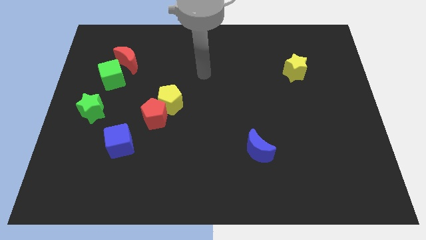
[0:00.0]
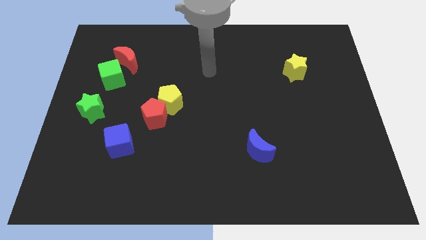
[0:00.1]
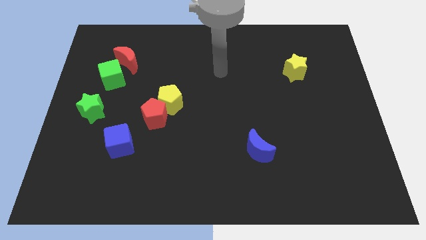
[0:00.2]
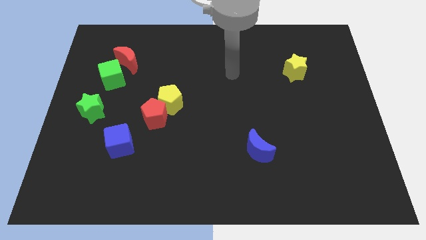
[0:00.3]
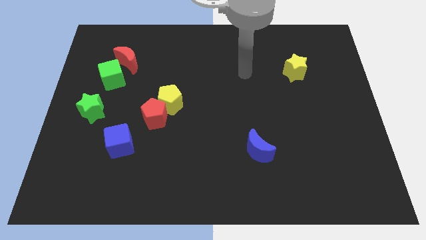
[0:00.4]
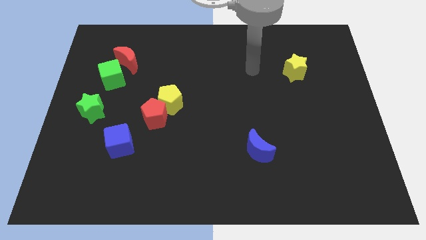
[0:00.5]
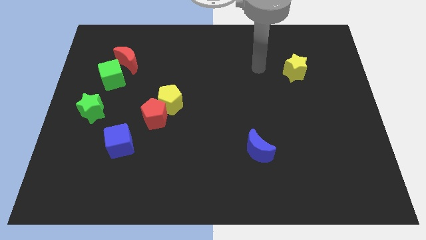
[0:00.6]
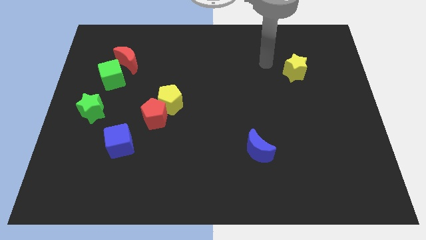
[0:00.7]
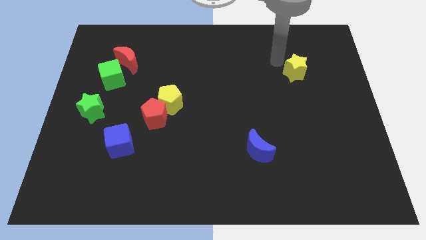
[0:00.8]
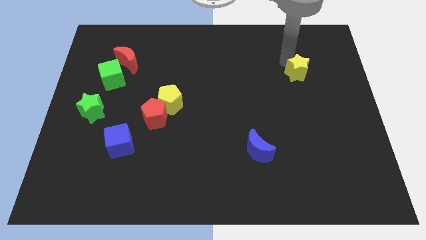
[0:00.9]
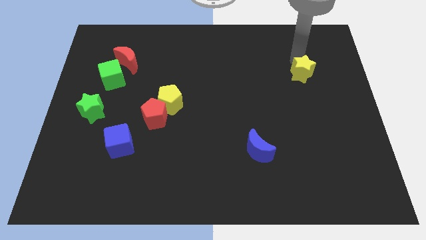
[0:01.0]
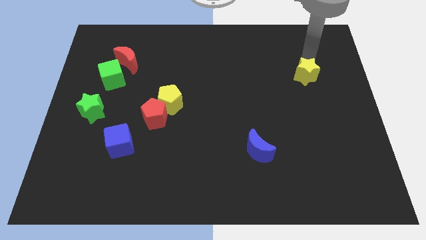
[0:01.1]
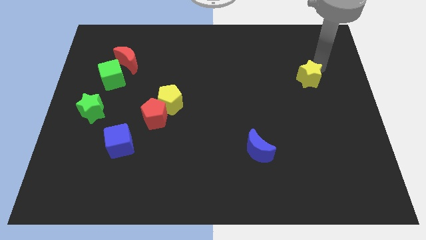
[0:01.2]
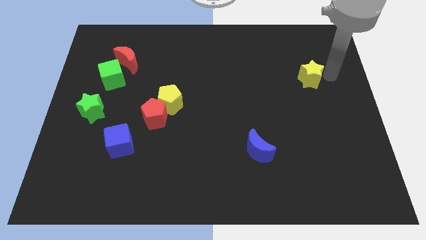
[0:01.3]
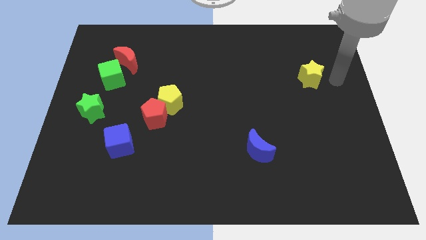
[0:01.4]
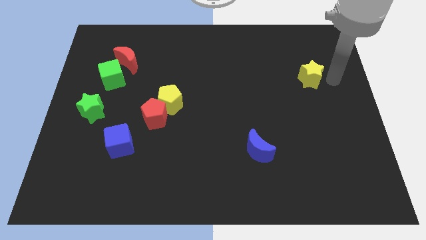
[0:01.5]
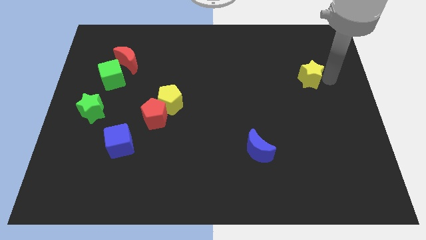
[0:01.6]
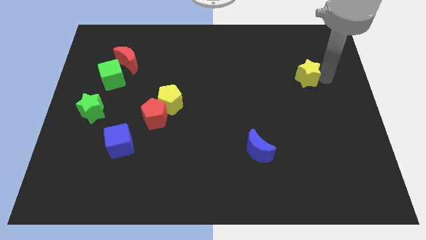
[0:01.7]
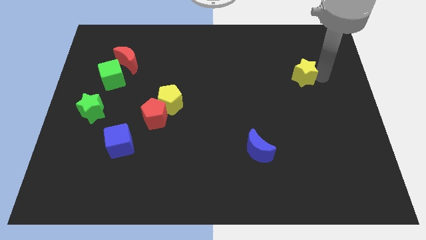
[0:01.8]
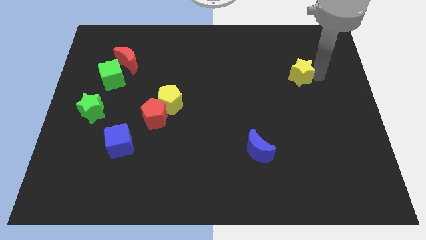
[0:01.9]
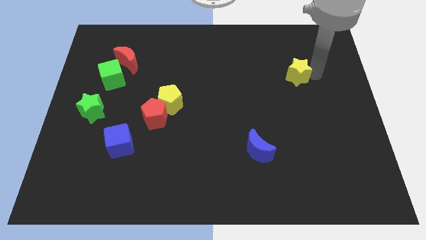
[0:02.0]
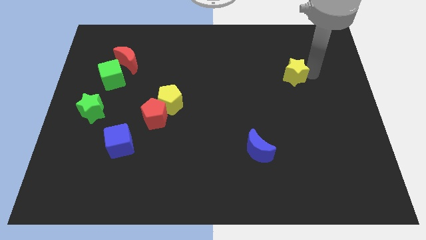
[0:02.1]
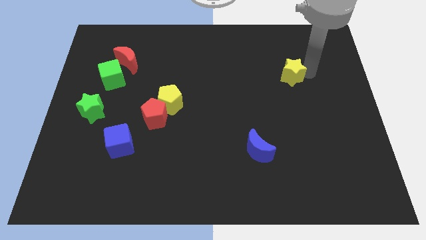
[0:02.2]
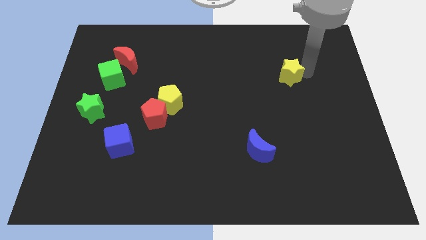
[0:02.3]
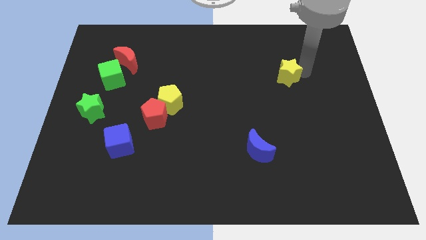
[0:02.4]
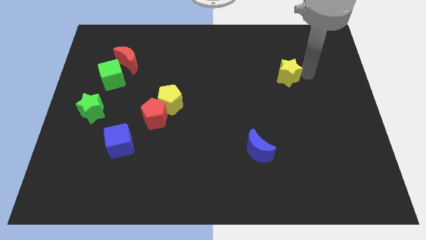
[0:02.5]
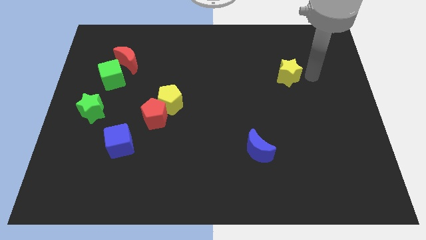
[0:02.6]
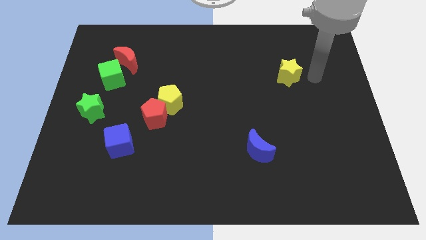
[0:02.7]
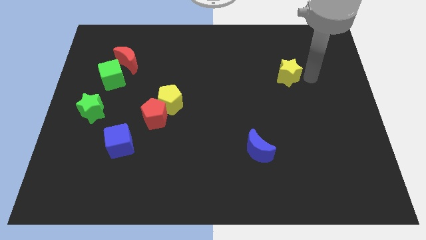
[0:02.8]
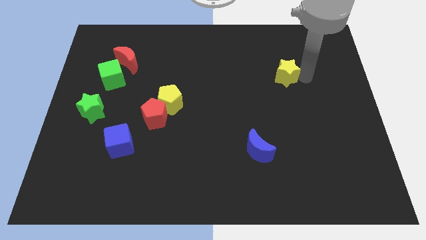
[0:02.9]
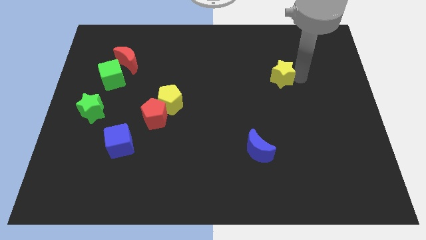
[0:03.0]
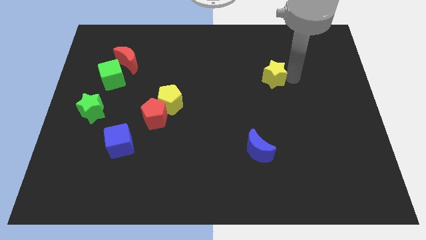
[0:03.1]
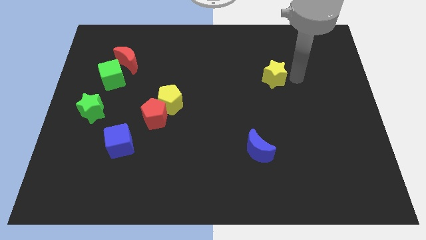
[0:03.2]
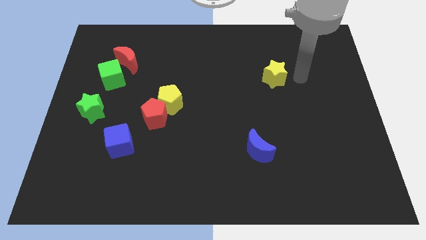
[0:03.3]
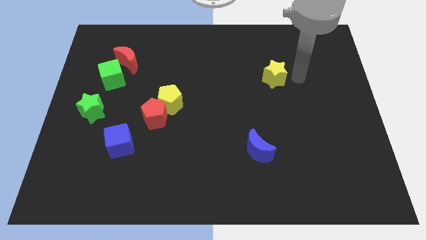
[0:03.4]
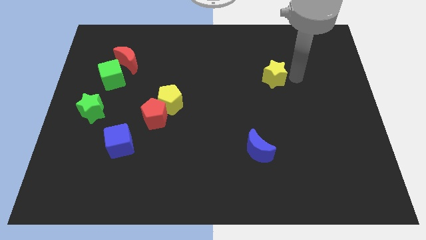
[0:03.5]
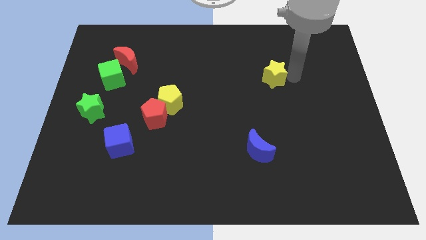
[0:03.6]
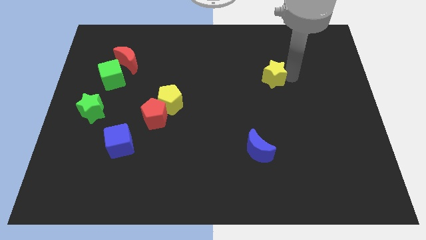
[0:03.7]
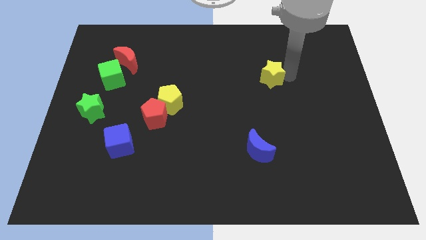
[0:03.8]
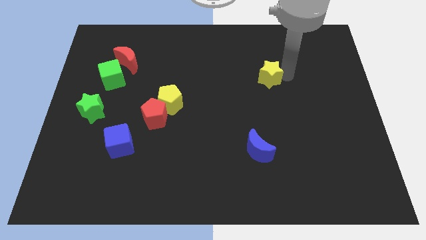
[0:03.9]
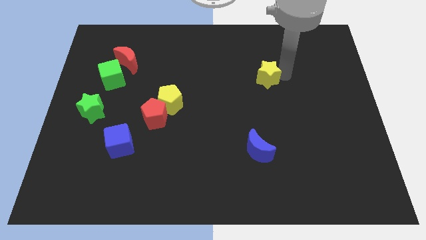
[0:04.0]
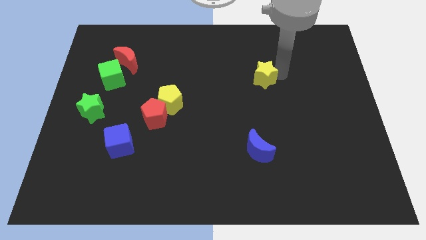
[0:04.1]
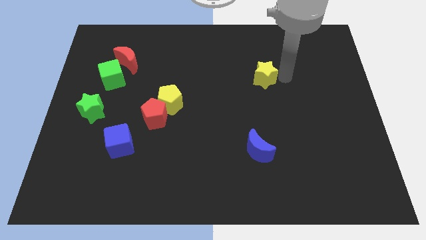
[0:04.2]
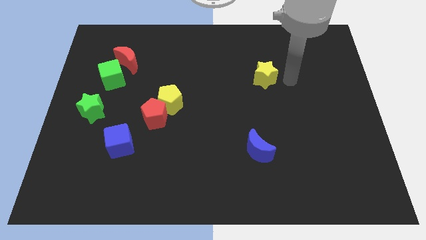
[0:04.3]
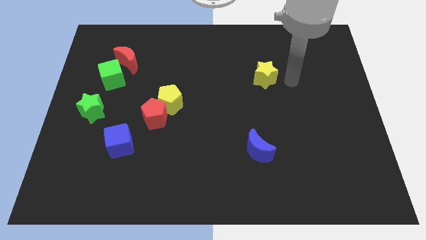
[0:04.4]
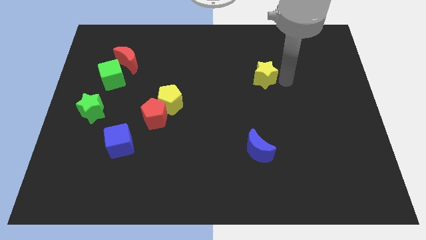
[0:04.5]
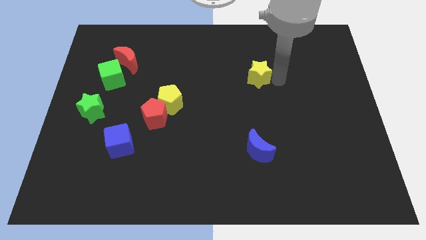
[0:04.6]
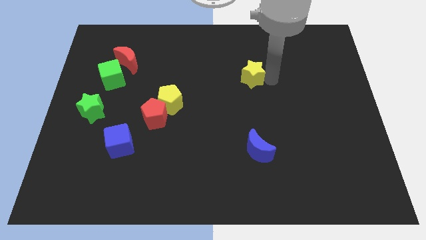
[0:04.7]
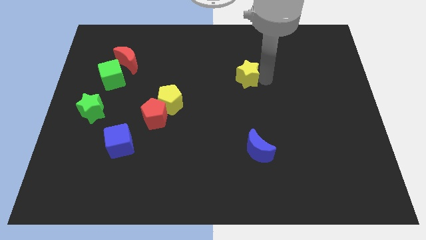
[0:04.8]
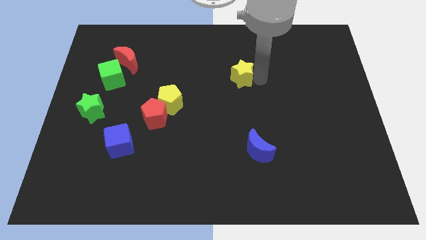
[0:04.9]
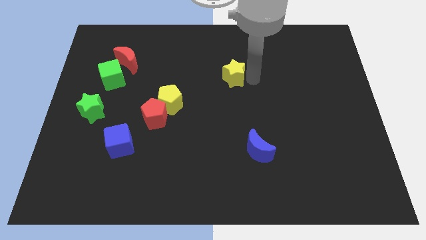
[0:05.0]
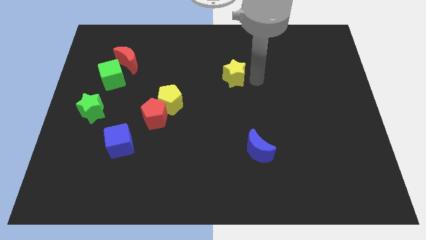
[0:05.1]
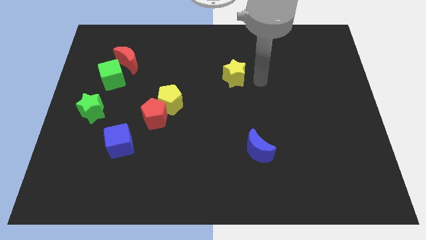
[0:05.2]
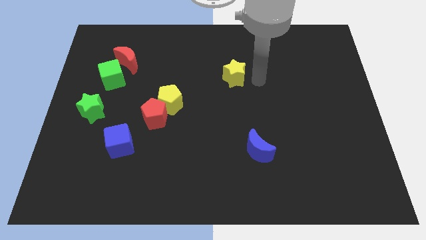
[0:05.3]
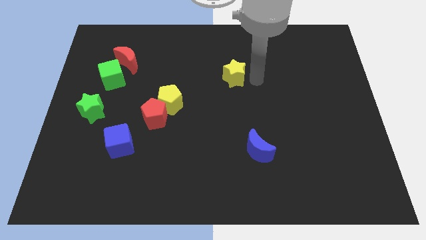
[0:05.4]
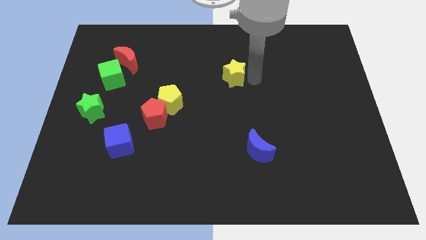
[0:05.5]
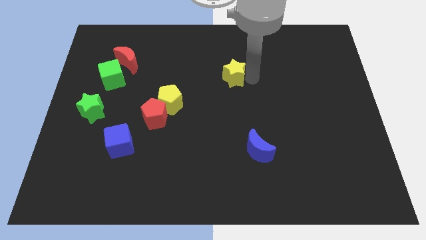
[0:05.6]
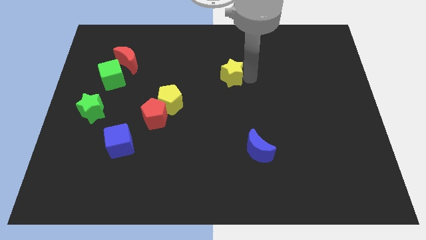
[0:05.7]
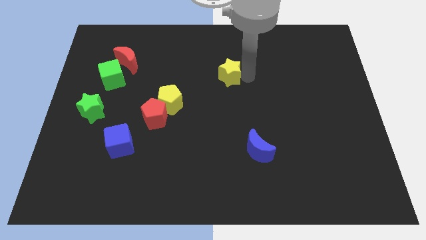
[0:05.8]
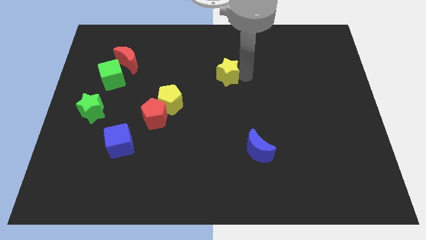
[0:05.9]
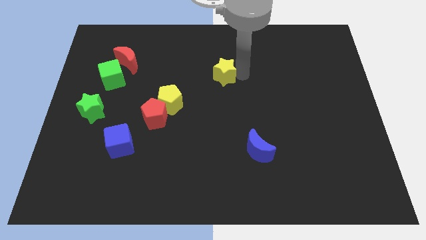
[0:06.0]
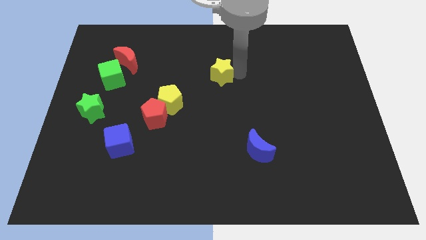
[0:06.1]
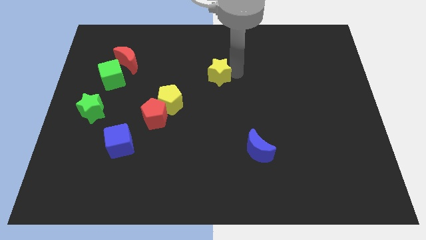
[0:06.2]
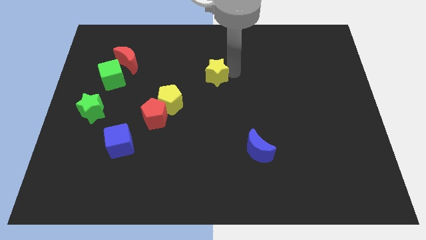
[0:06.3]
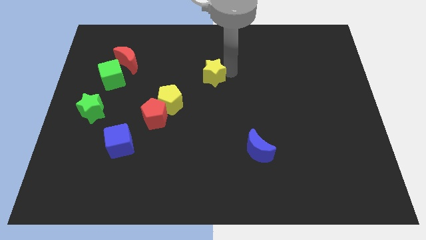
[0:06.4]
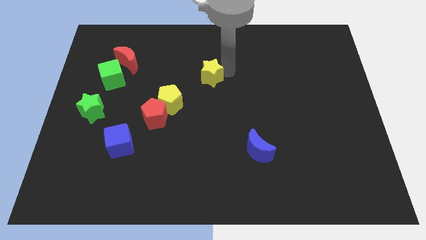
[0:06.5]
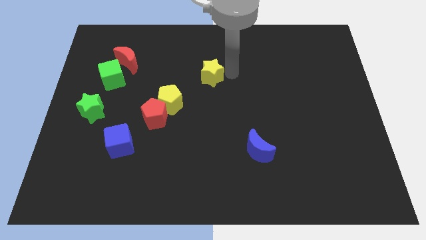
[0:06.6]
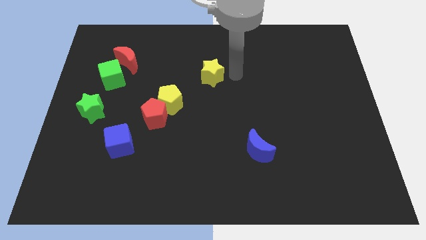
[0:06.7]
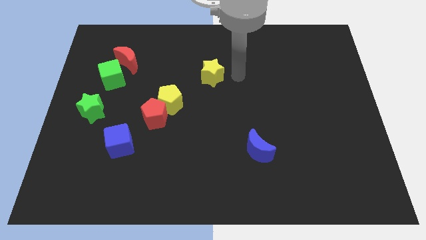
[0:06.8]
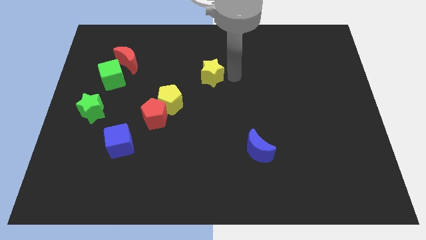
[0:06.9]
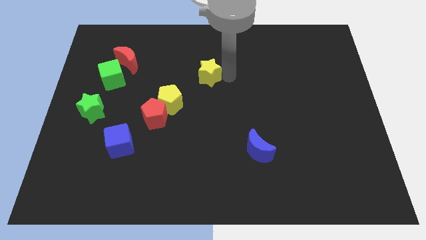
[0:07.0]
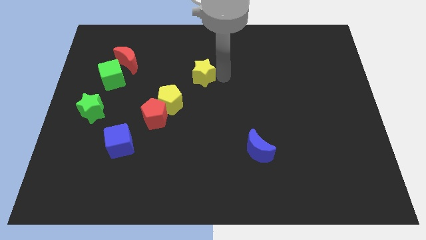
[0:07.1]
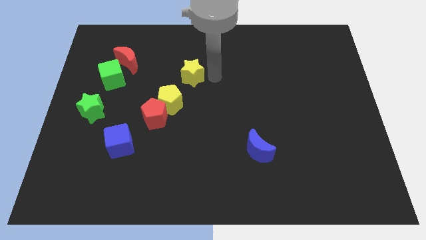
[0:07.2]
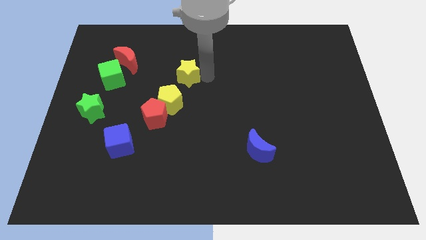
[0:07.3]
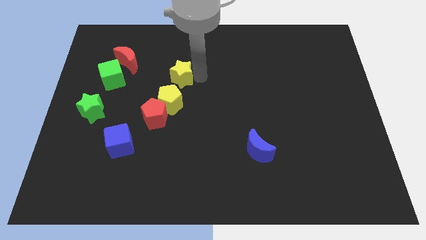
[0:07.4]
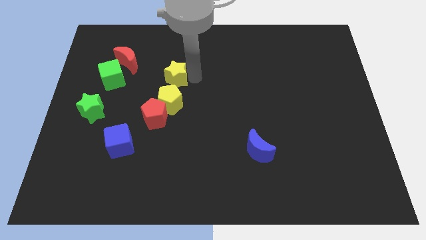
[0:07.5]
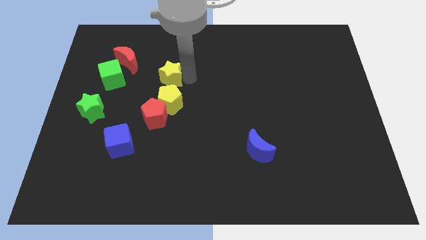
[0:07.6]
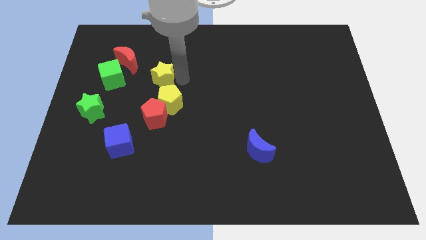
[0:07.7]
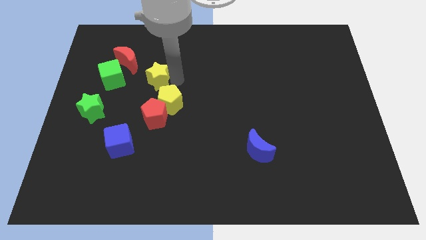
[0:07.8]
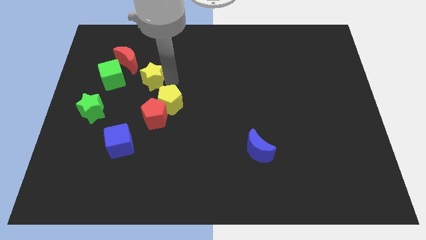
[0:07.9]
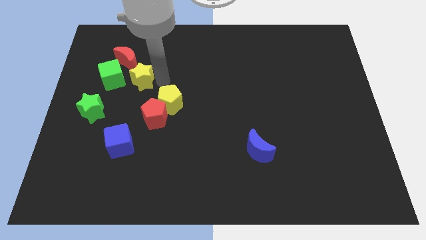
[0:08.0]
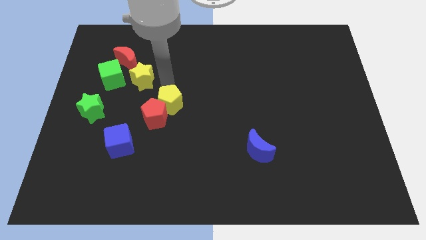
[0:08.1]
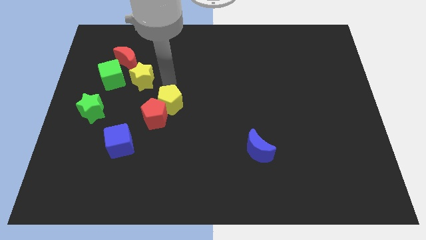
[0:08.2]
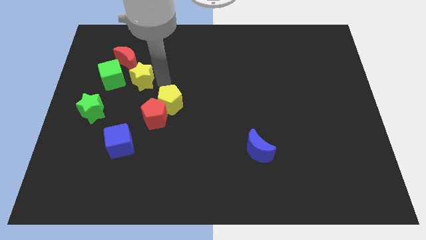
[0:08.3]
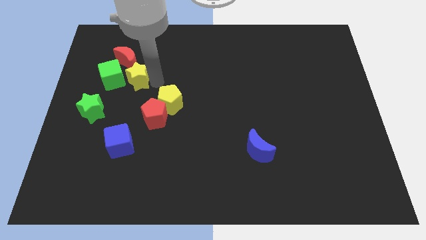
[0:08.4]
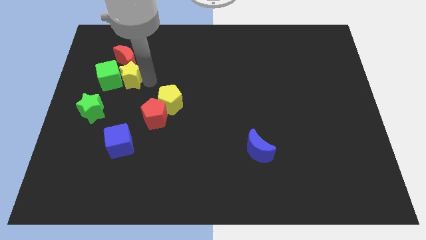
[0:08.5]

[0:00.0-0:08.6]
put the yellow star close to the green cube
